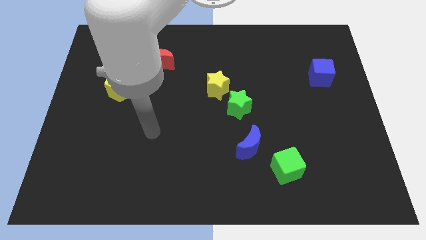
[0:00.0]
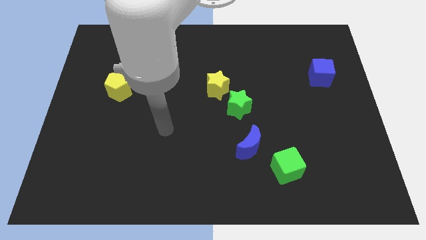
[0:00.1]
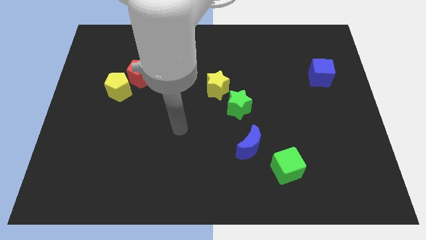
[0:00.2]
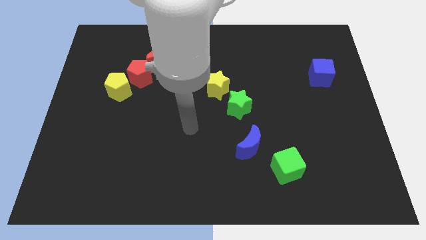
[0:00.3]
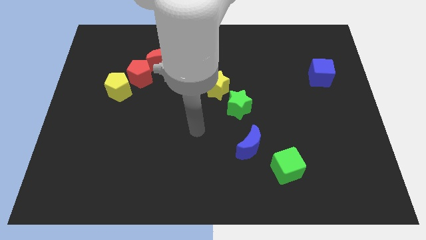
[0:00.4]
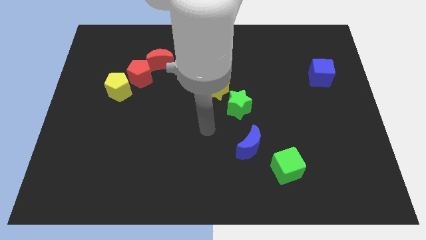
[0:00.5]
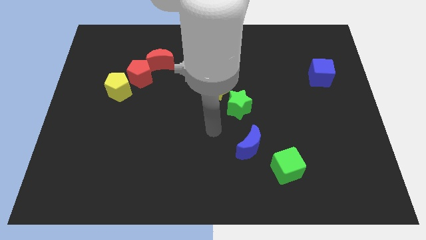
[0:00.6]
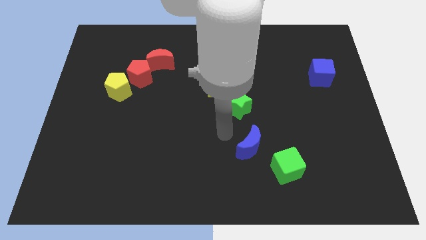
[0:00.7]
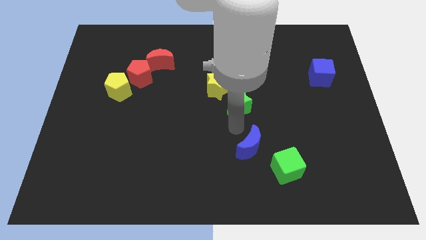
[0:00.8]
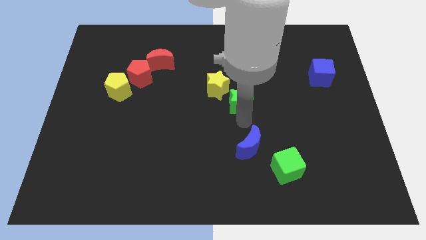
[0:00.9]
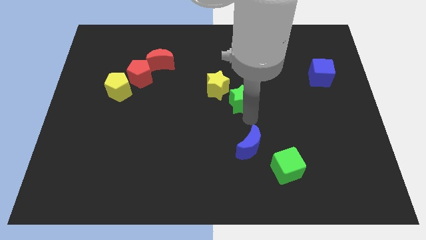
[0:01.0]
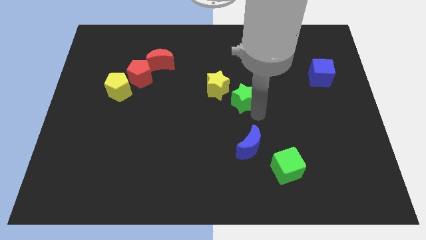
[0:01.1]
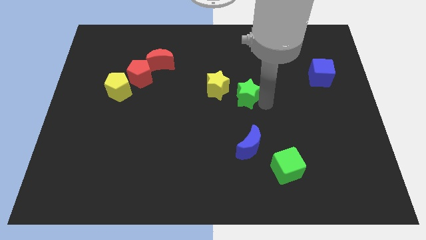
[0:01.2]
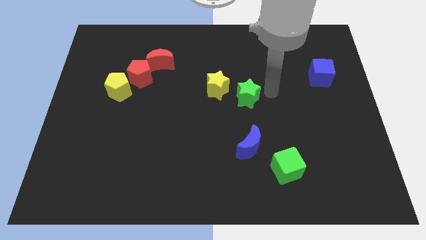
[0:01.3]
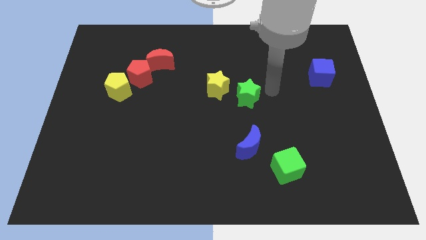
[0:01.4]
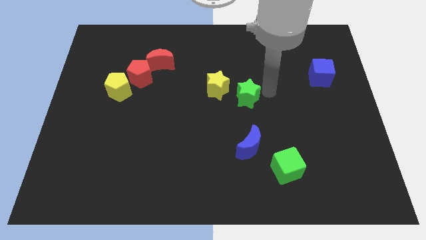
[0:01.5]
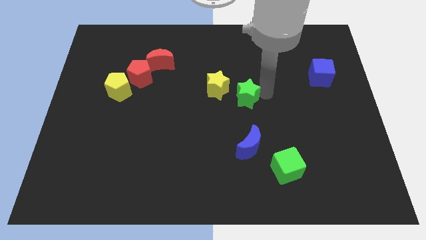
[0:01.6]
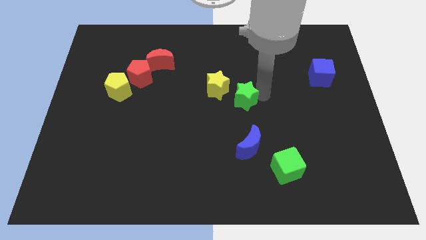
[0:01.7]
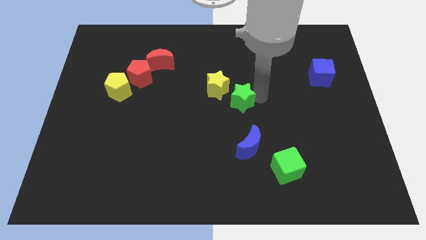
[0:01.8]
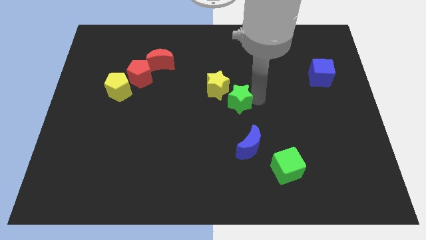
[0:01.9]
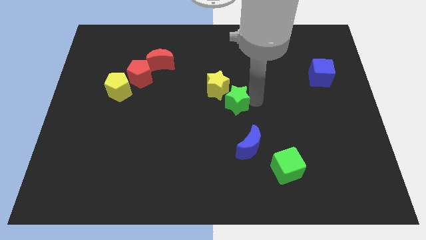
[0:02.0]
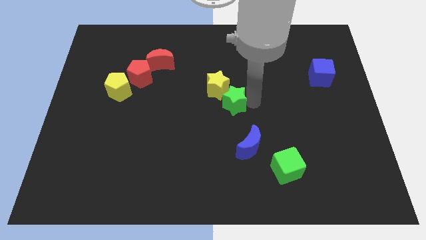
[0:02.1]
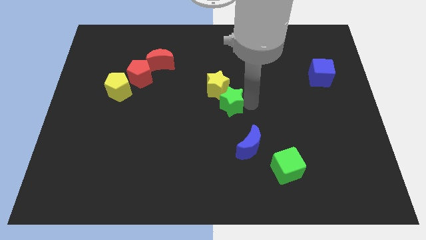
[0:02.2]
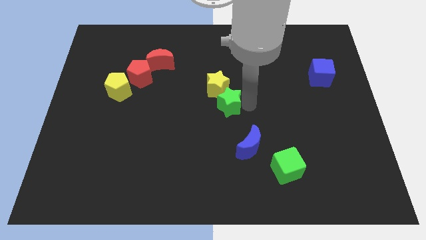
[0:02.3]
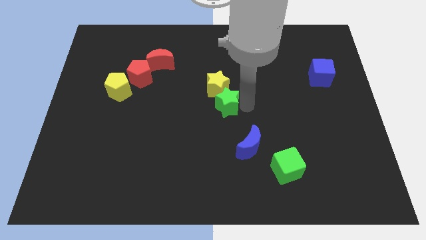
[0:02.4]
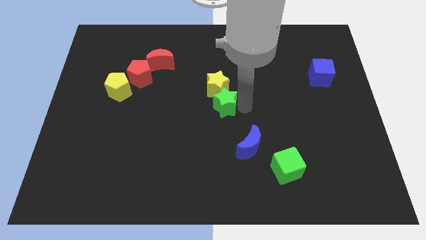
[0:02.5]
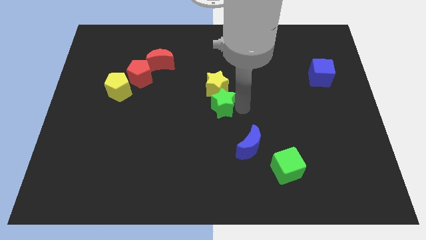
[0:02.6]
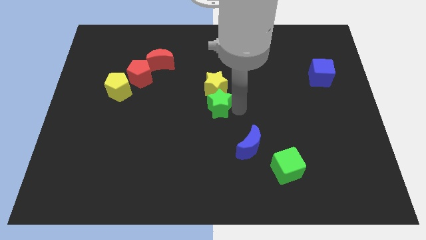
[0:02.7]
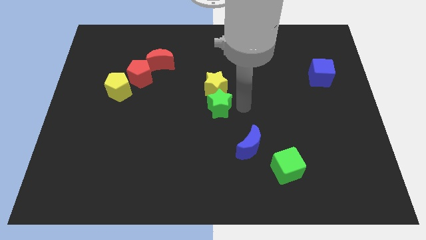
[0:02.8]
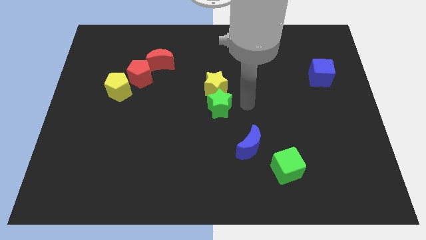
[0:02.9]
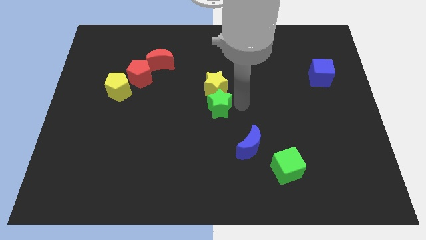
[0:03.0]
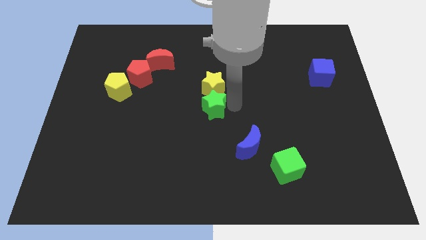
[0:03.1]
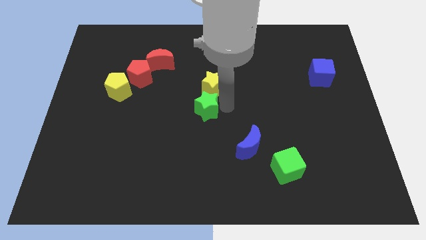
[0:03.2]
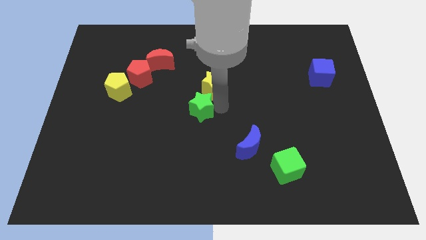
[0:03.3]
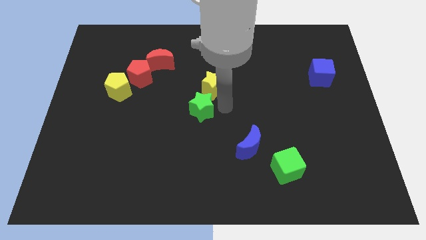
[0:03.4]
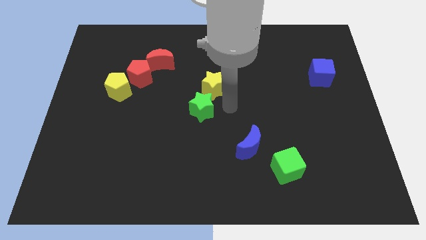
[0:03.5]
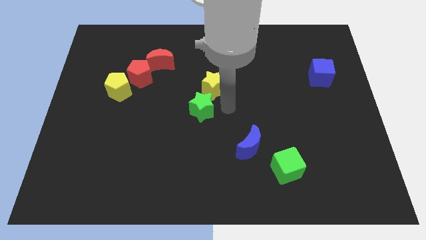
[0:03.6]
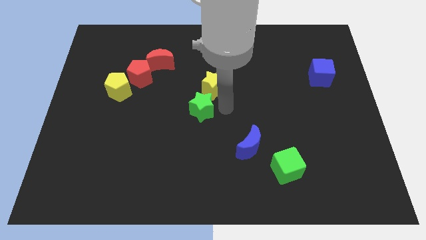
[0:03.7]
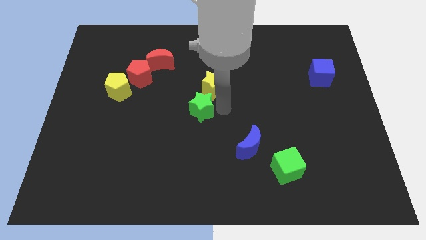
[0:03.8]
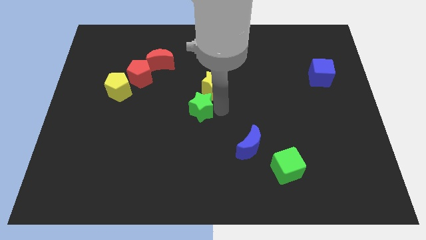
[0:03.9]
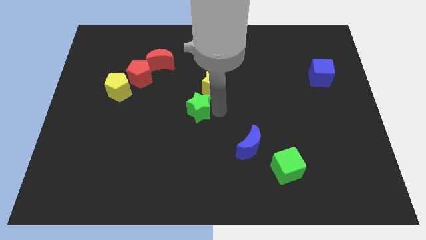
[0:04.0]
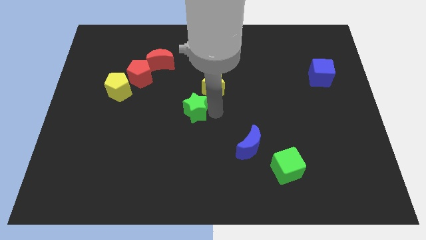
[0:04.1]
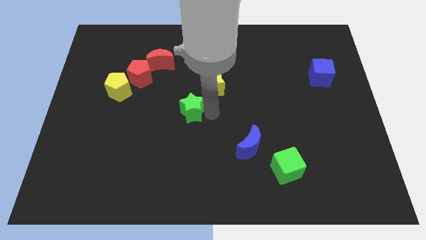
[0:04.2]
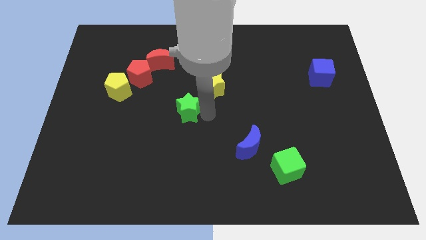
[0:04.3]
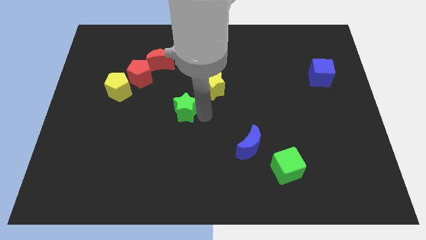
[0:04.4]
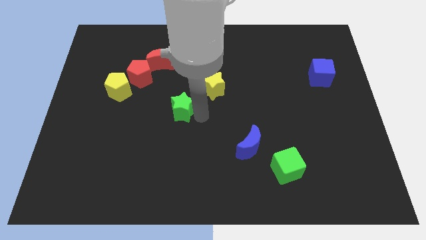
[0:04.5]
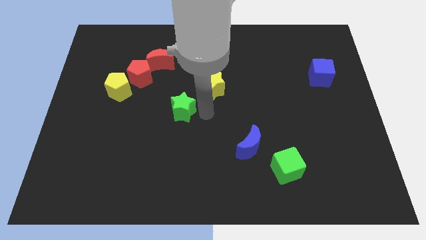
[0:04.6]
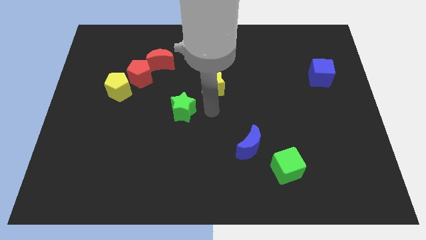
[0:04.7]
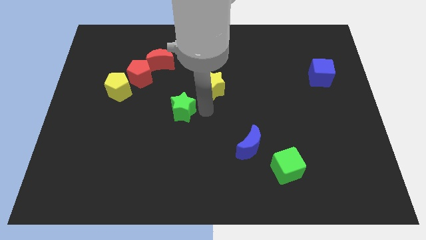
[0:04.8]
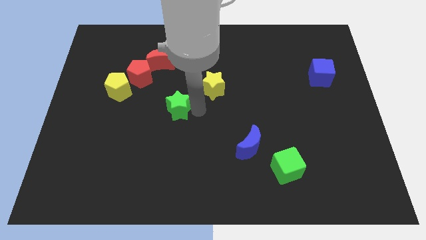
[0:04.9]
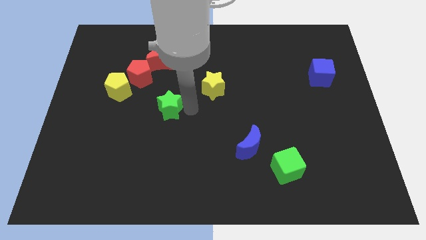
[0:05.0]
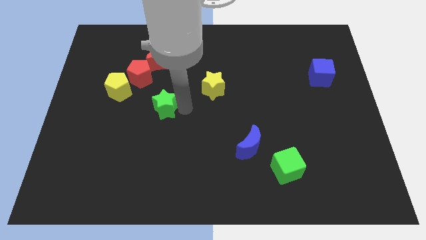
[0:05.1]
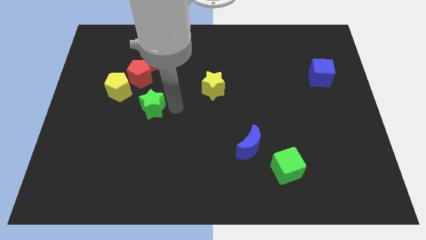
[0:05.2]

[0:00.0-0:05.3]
slide the green star left

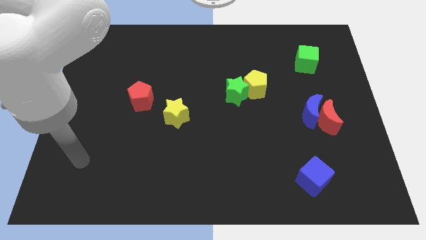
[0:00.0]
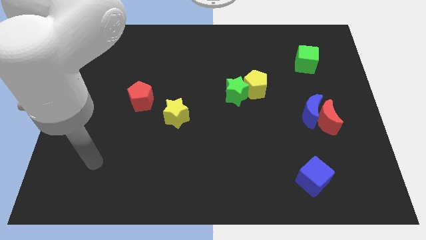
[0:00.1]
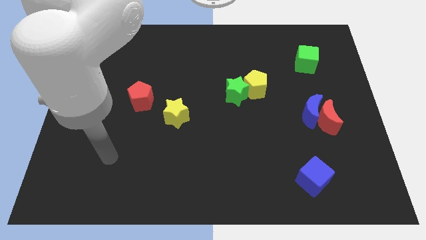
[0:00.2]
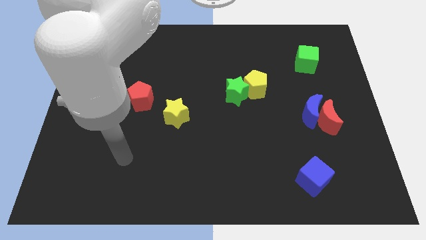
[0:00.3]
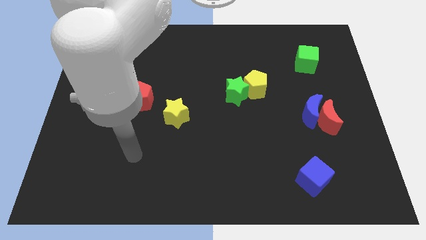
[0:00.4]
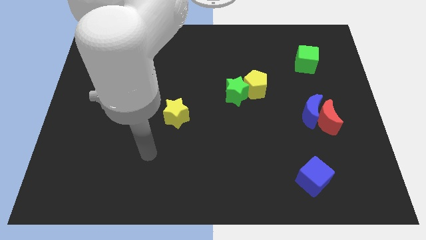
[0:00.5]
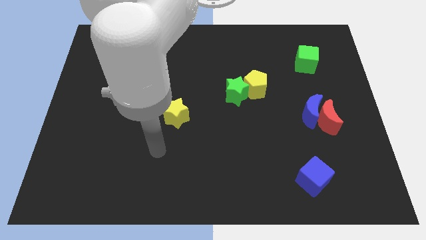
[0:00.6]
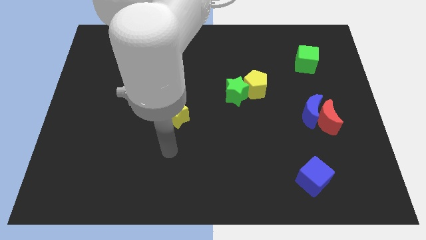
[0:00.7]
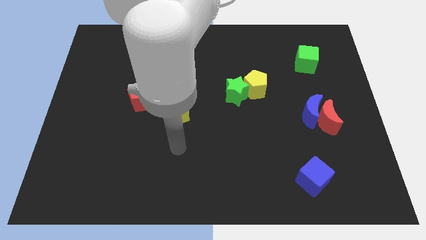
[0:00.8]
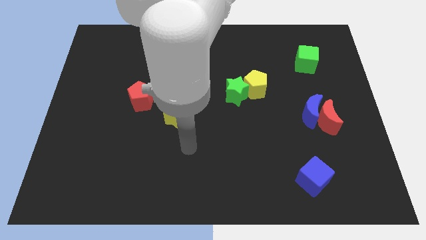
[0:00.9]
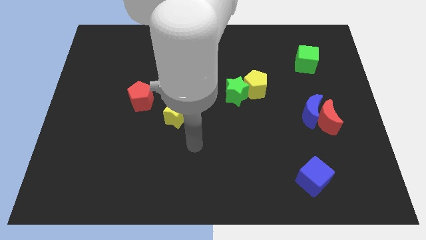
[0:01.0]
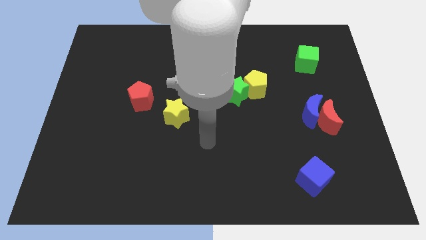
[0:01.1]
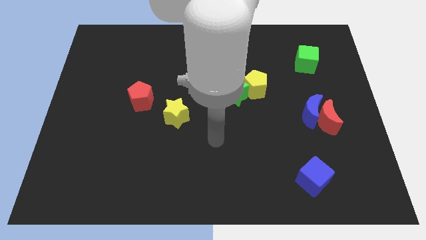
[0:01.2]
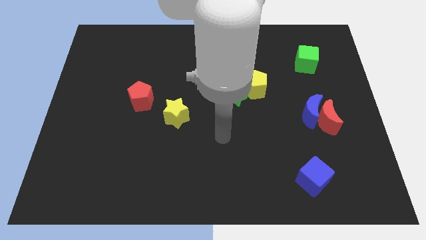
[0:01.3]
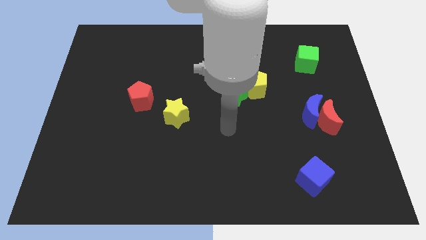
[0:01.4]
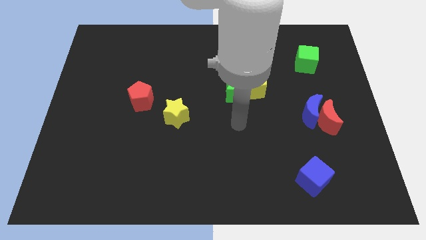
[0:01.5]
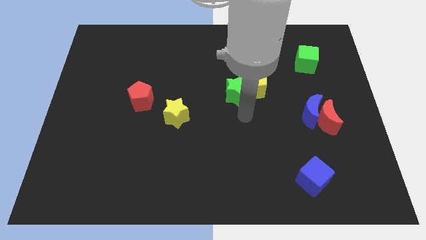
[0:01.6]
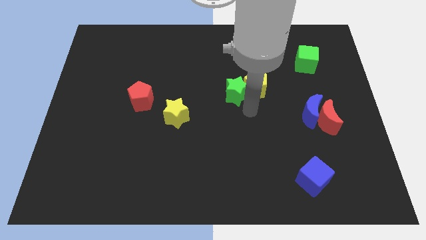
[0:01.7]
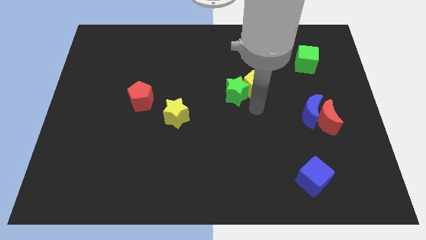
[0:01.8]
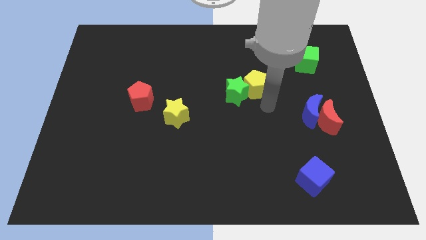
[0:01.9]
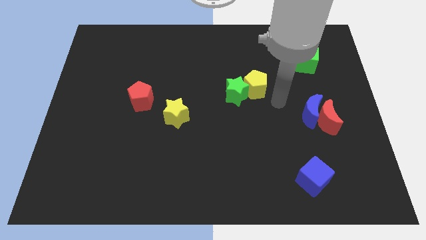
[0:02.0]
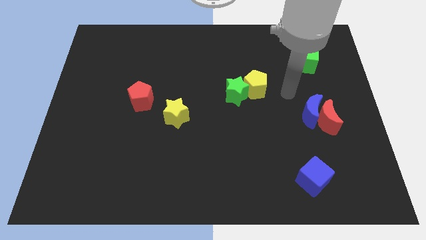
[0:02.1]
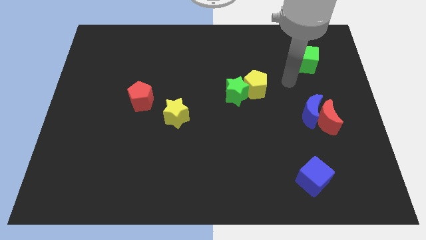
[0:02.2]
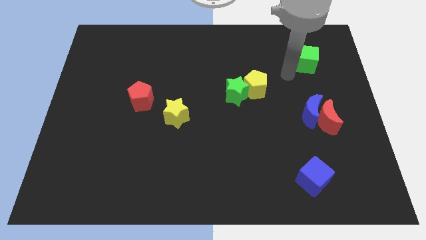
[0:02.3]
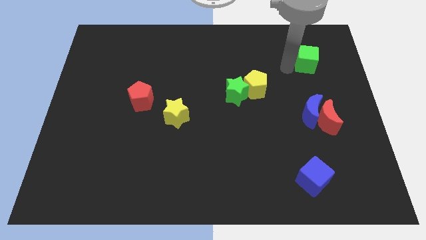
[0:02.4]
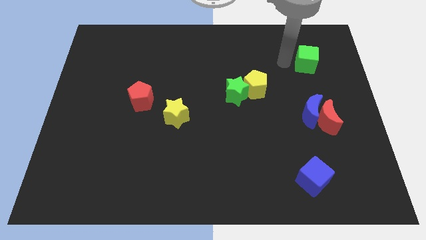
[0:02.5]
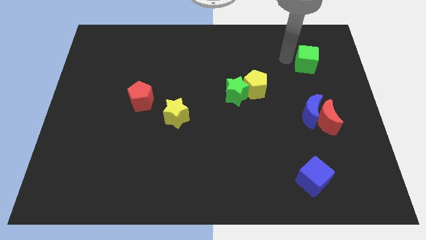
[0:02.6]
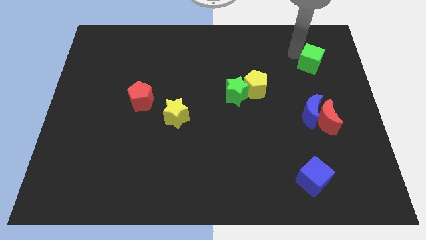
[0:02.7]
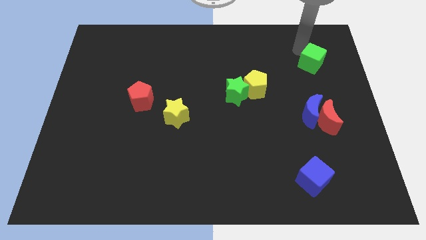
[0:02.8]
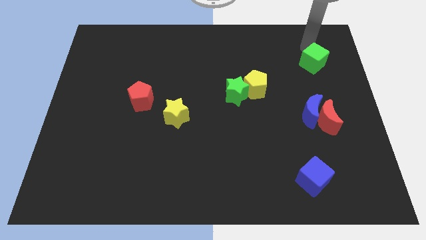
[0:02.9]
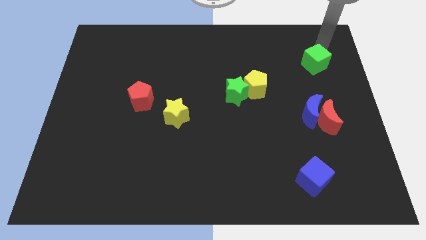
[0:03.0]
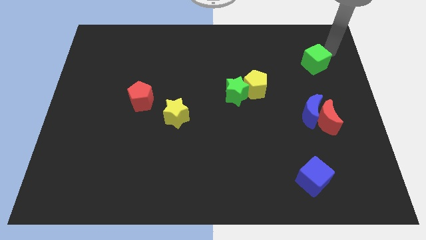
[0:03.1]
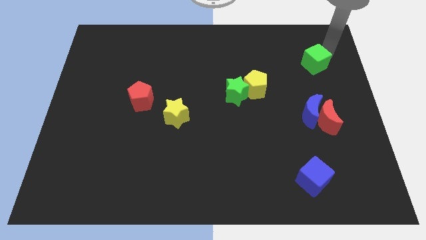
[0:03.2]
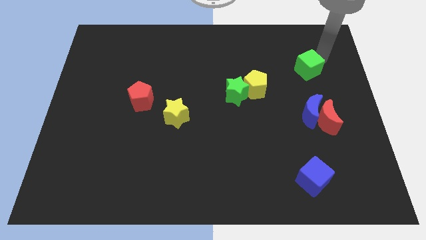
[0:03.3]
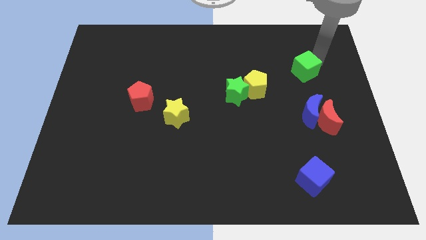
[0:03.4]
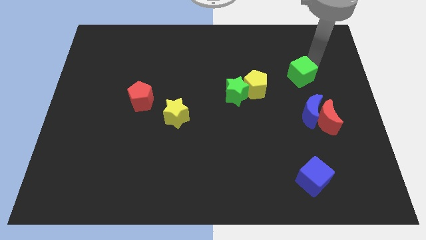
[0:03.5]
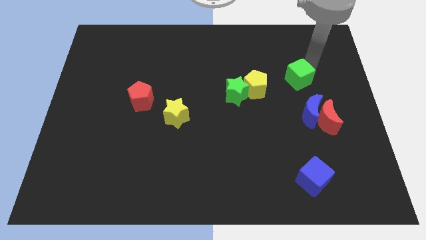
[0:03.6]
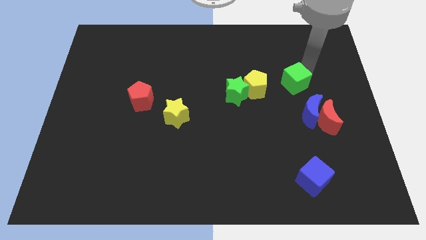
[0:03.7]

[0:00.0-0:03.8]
slightly push the green cube down and to the left diagonally
